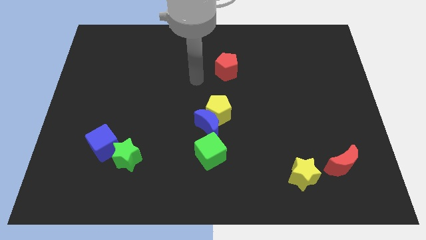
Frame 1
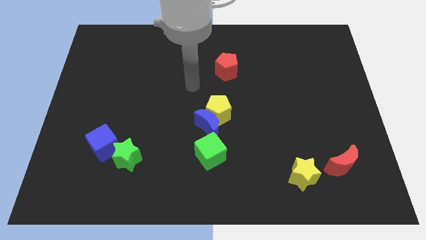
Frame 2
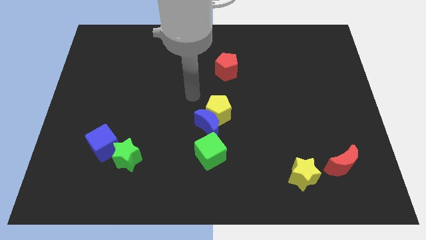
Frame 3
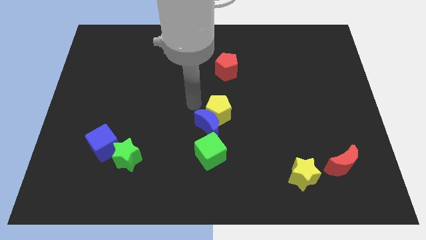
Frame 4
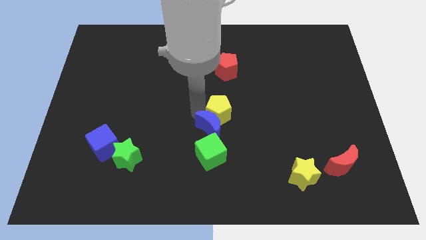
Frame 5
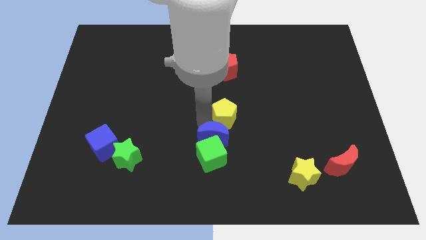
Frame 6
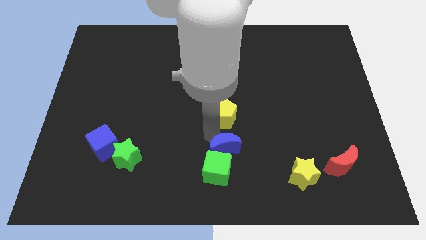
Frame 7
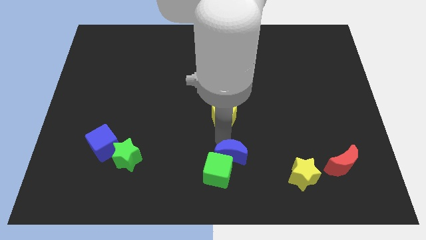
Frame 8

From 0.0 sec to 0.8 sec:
separate the yellow pentagon from the blue moon

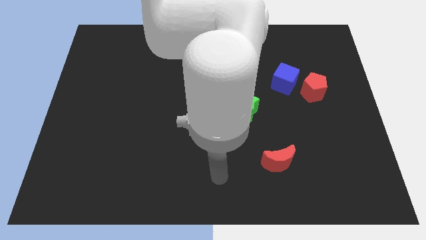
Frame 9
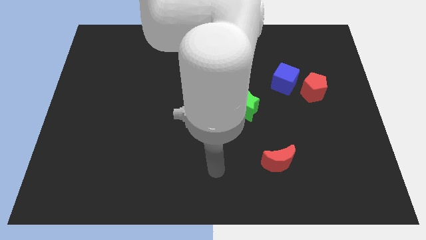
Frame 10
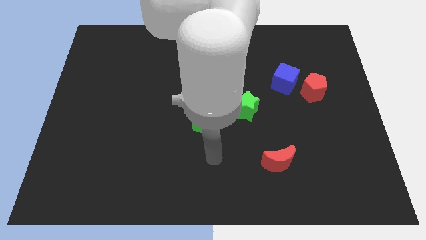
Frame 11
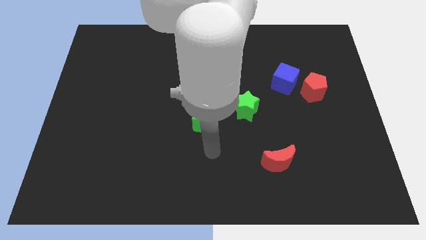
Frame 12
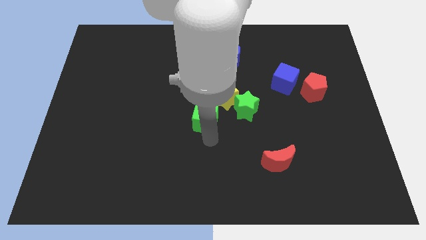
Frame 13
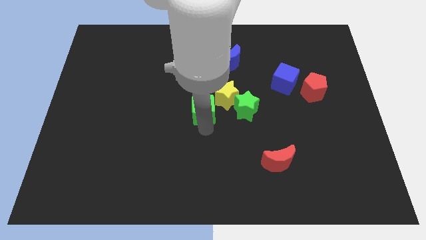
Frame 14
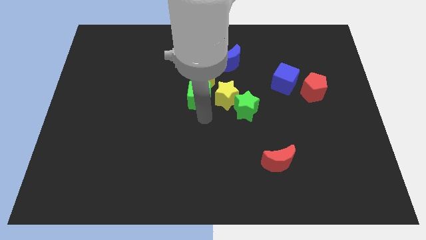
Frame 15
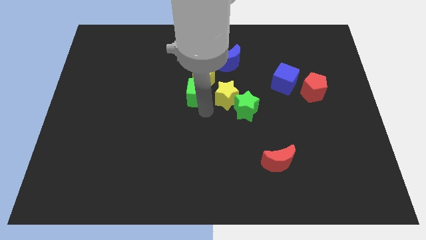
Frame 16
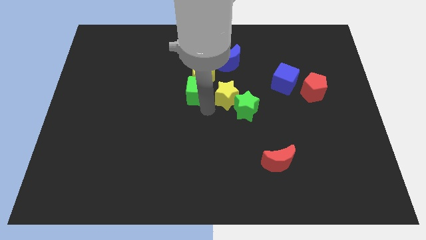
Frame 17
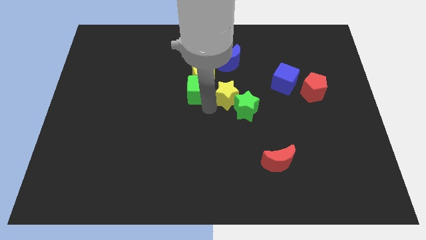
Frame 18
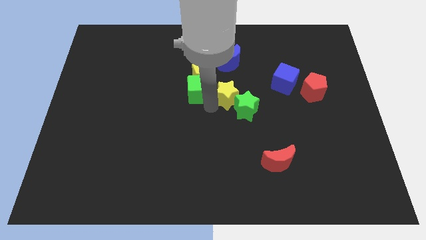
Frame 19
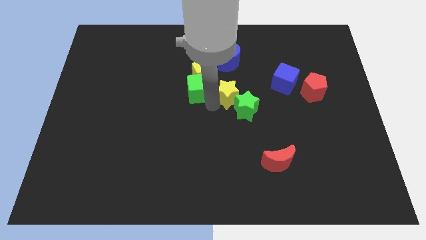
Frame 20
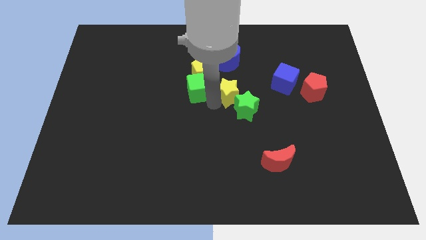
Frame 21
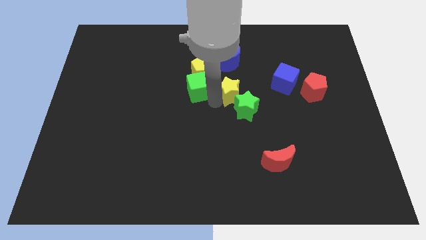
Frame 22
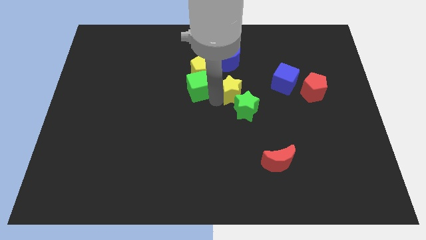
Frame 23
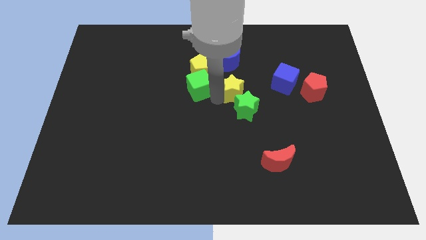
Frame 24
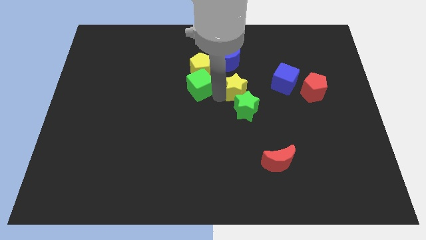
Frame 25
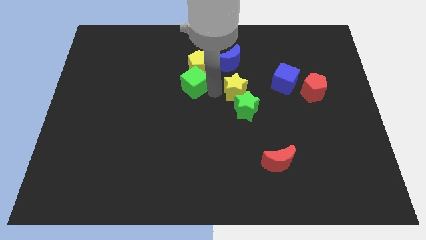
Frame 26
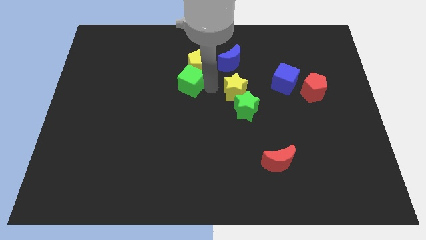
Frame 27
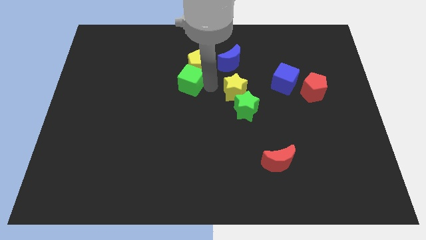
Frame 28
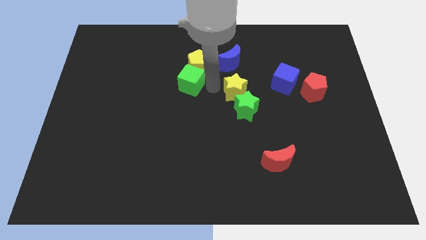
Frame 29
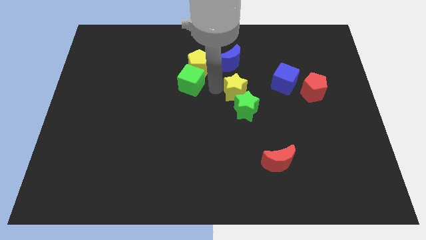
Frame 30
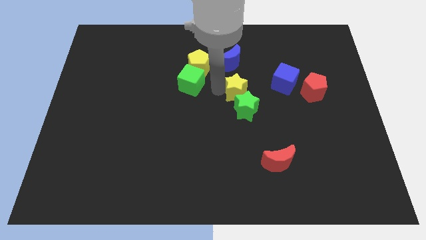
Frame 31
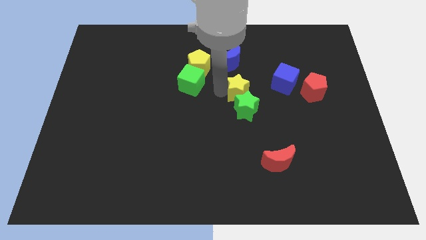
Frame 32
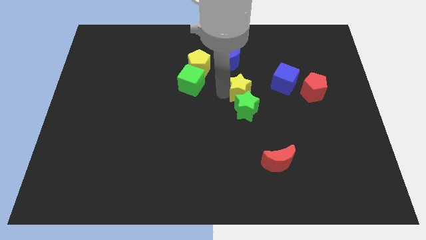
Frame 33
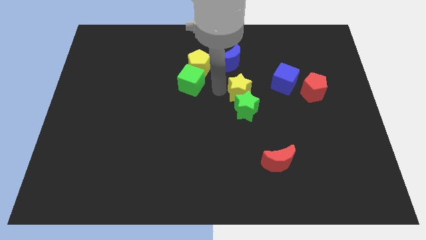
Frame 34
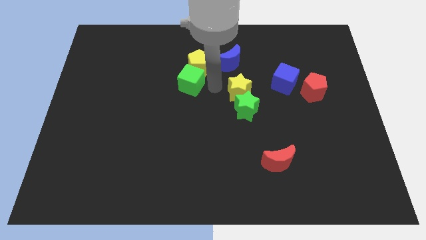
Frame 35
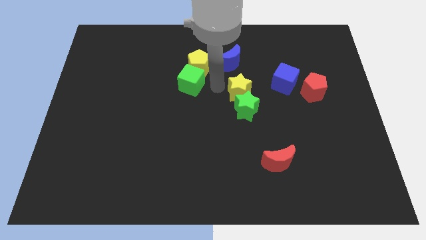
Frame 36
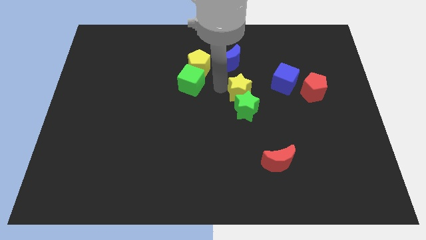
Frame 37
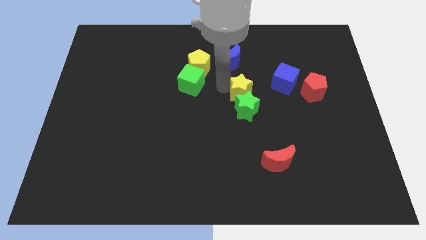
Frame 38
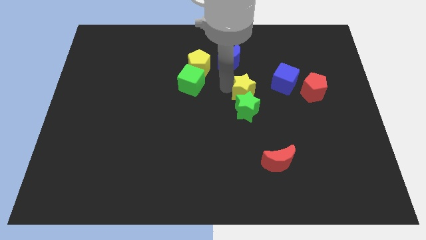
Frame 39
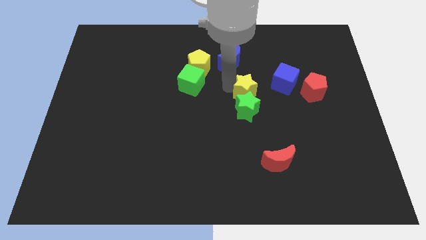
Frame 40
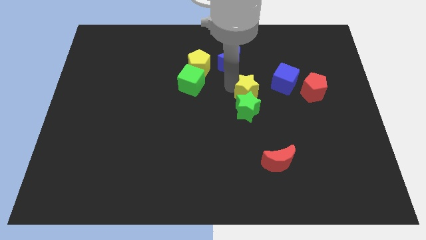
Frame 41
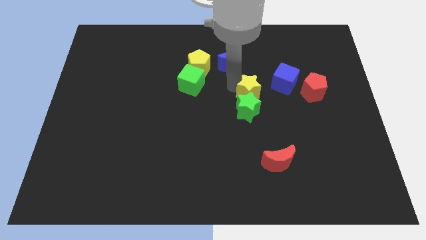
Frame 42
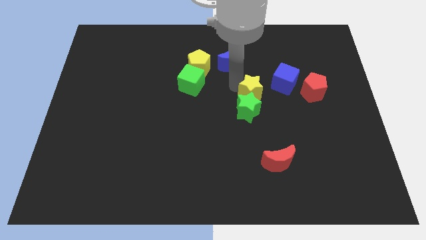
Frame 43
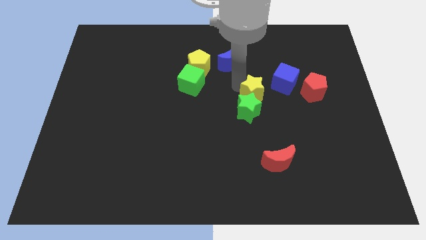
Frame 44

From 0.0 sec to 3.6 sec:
move the yellow star away from the group of blocks

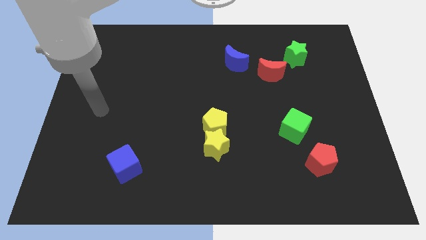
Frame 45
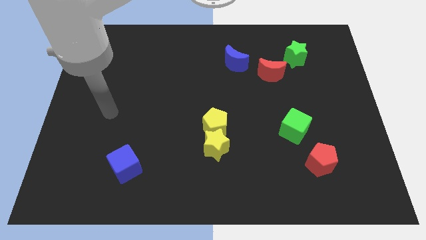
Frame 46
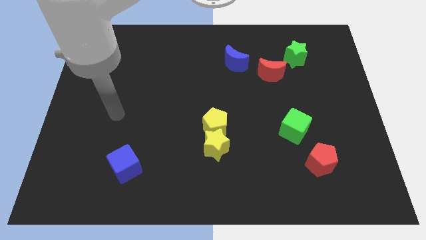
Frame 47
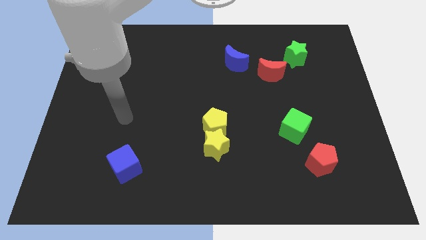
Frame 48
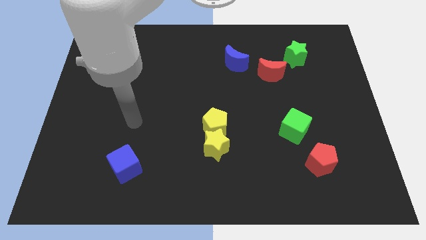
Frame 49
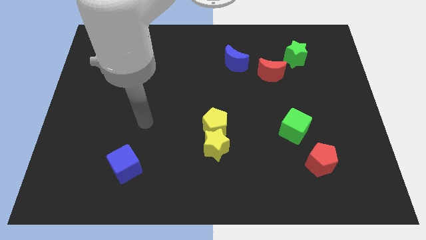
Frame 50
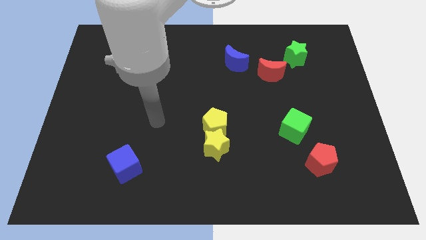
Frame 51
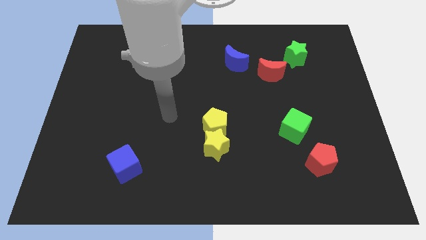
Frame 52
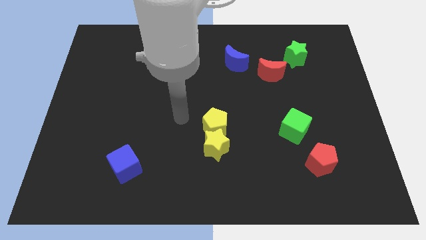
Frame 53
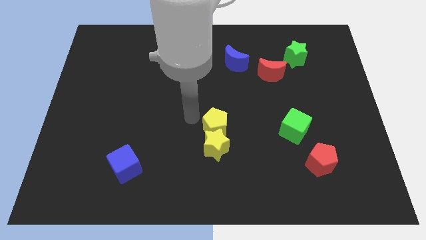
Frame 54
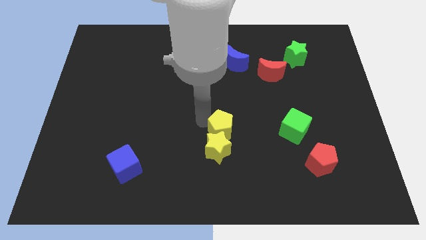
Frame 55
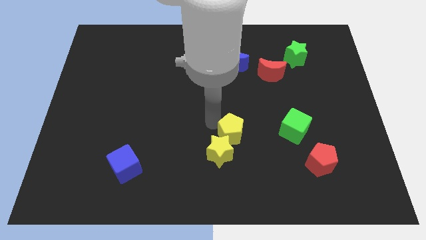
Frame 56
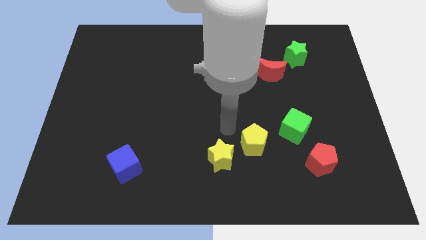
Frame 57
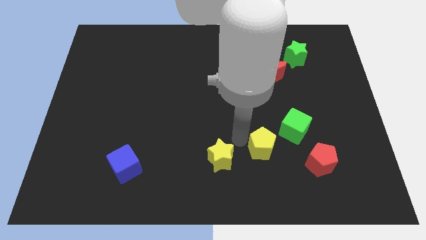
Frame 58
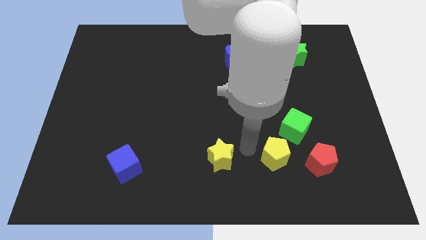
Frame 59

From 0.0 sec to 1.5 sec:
pull the yellow star apart from the yellow pentagon

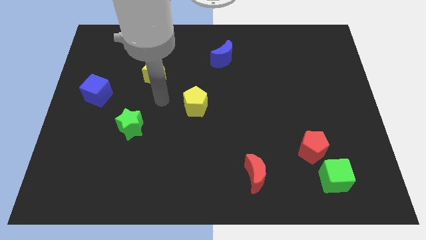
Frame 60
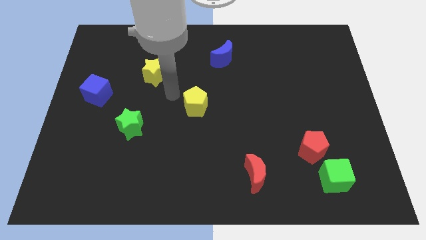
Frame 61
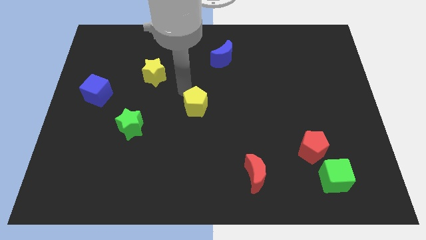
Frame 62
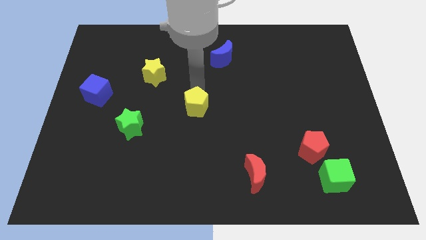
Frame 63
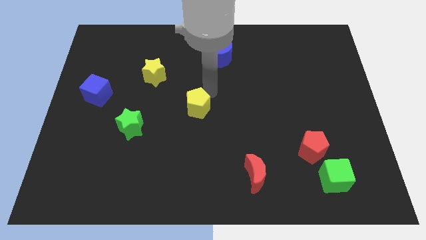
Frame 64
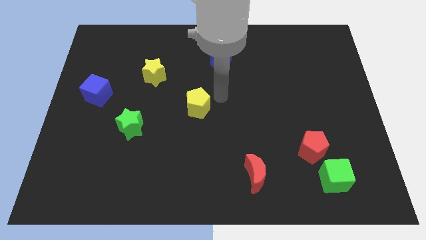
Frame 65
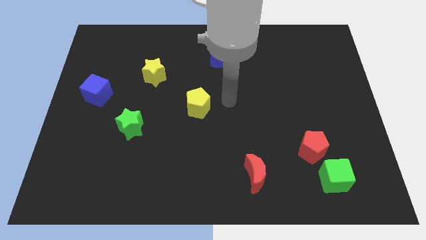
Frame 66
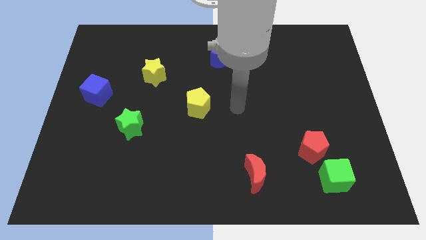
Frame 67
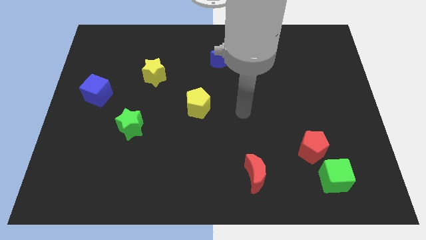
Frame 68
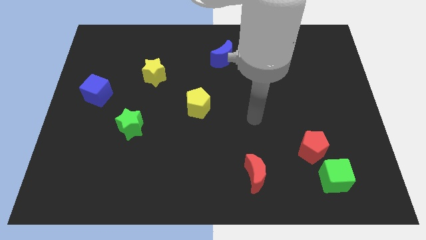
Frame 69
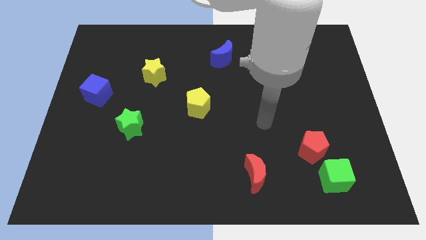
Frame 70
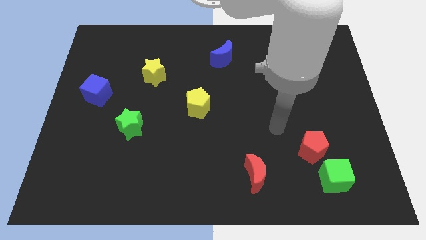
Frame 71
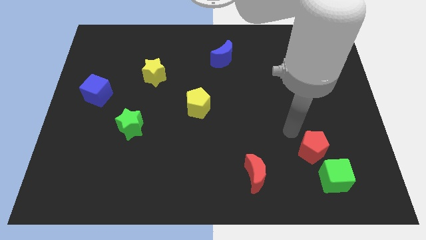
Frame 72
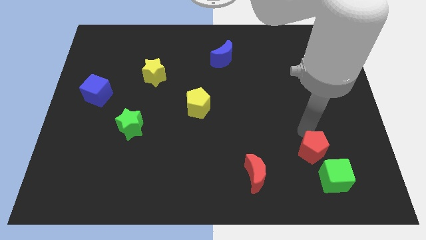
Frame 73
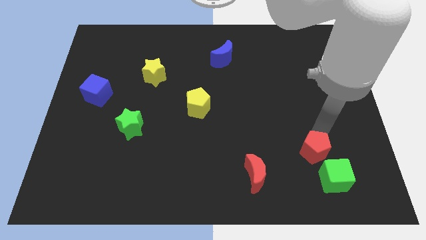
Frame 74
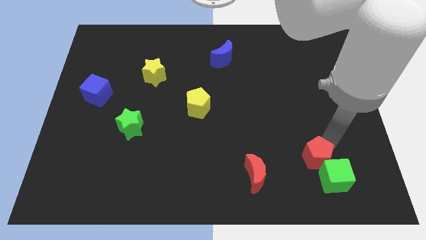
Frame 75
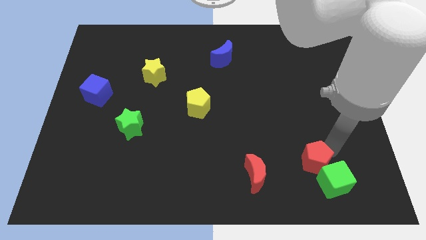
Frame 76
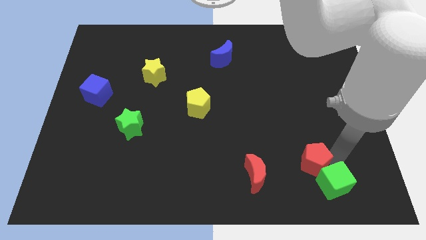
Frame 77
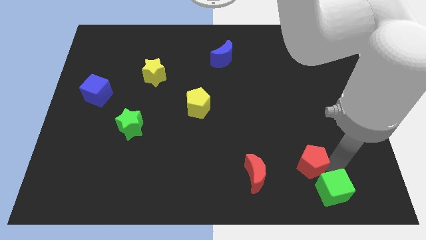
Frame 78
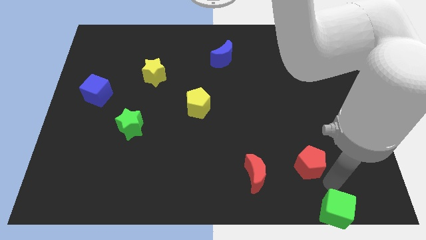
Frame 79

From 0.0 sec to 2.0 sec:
pull the red pentagon apart from the green cube

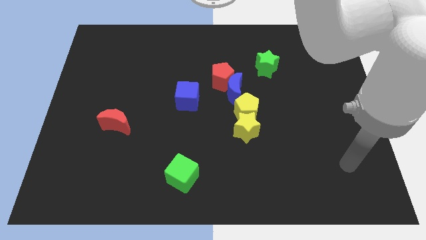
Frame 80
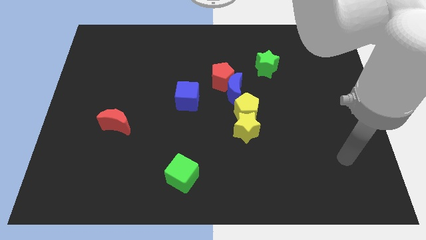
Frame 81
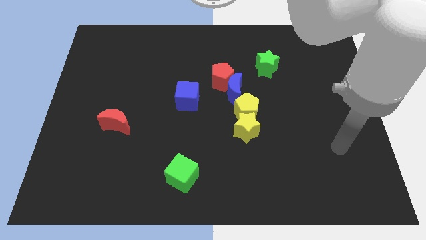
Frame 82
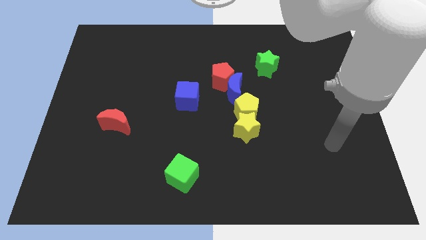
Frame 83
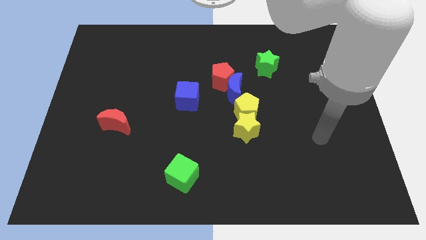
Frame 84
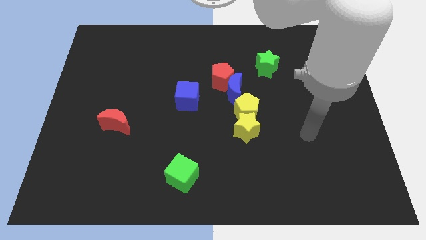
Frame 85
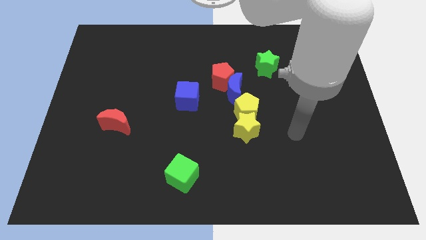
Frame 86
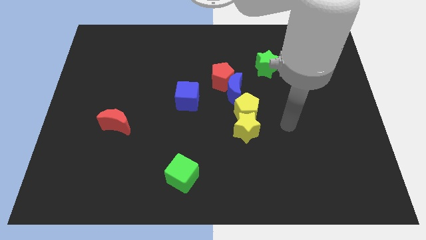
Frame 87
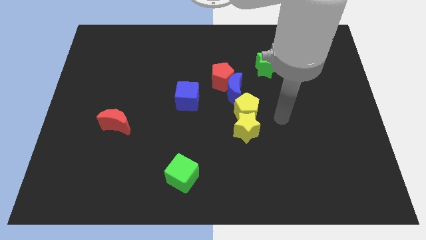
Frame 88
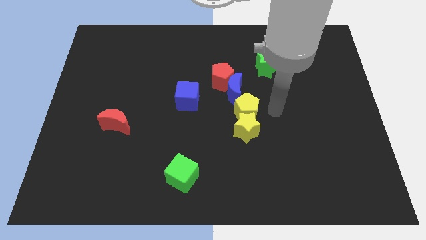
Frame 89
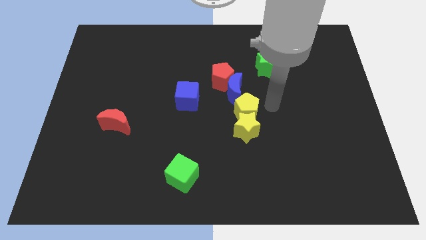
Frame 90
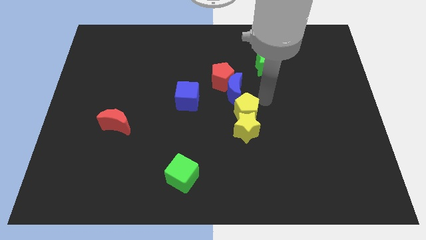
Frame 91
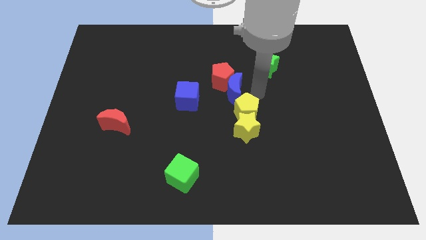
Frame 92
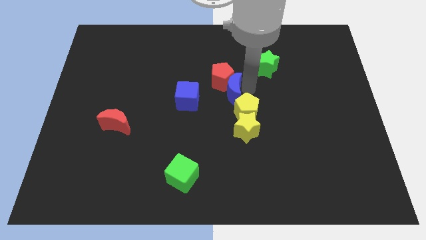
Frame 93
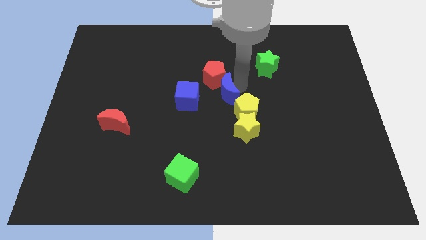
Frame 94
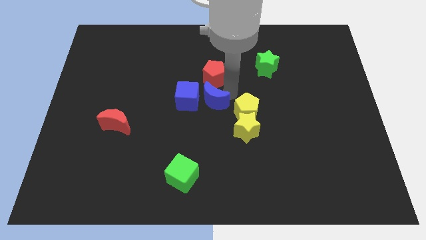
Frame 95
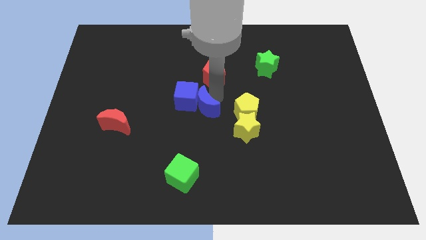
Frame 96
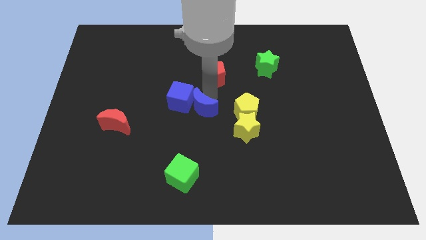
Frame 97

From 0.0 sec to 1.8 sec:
separate the red pentagon from the blue moon
